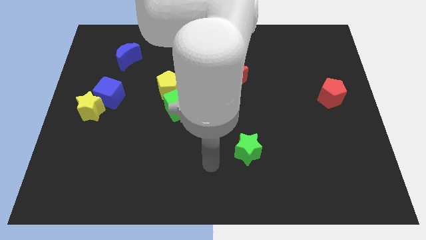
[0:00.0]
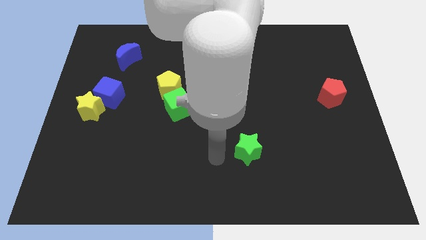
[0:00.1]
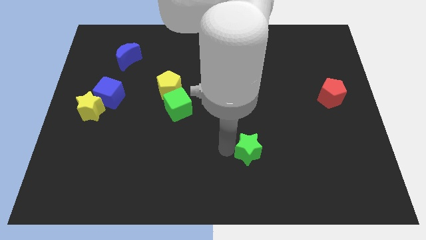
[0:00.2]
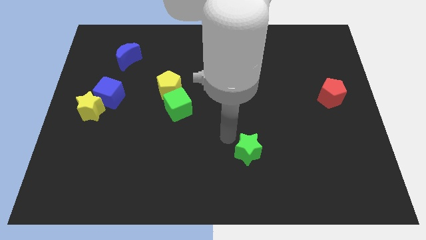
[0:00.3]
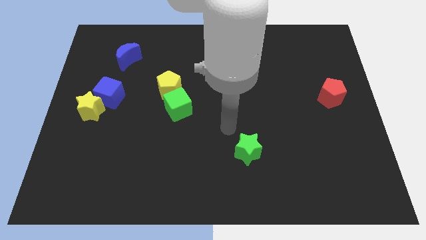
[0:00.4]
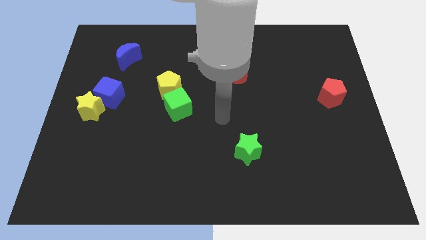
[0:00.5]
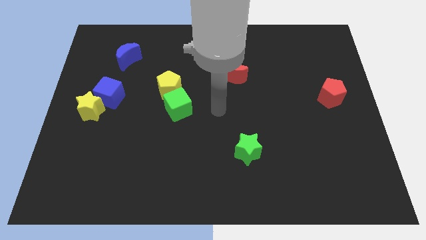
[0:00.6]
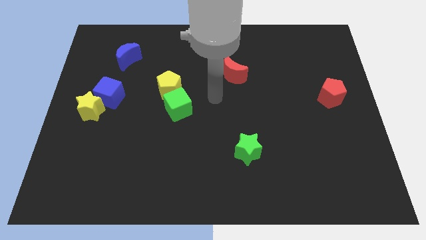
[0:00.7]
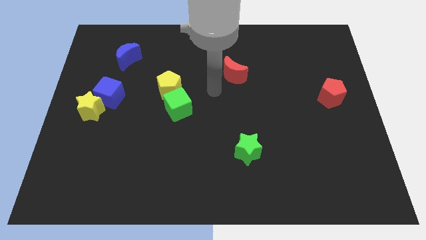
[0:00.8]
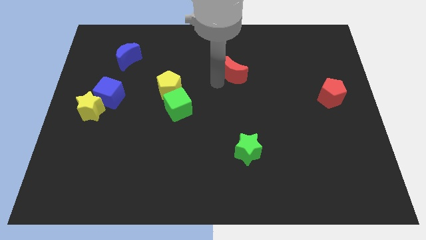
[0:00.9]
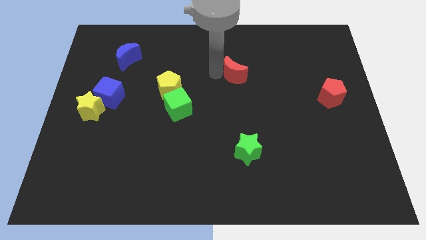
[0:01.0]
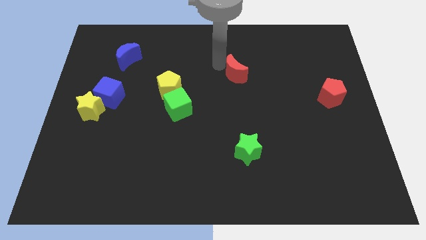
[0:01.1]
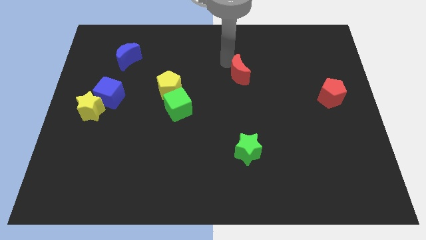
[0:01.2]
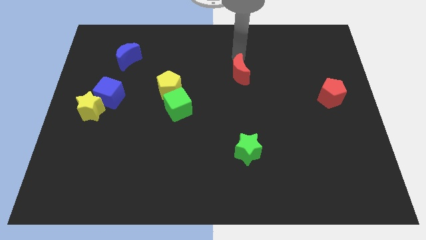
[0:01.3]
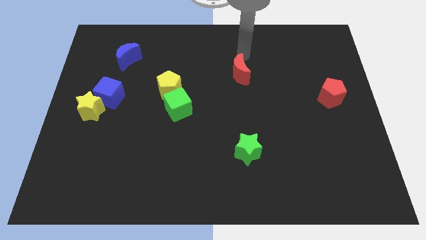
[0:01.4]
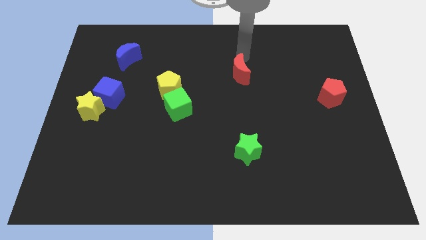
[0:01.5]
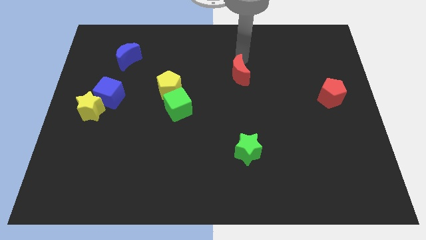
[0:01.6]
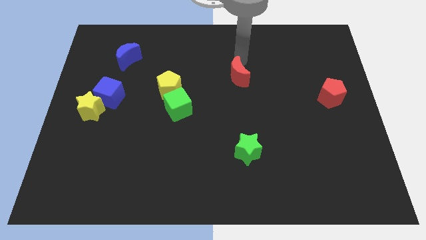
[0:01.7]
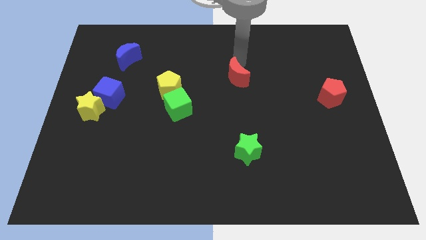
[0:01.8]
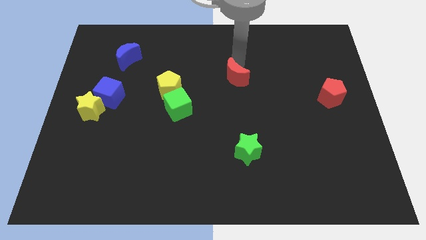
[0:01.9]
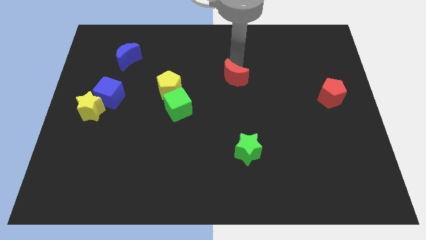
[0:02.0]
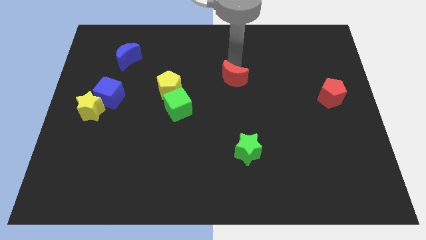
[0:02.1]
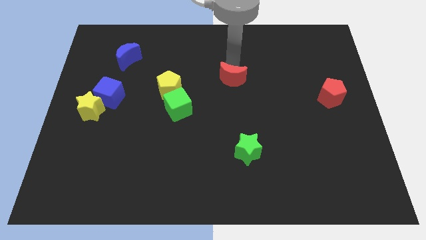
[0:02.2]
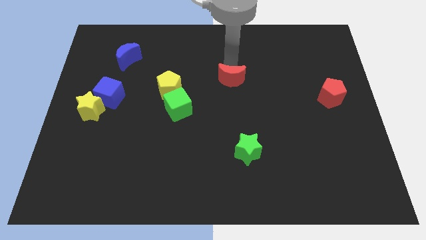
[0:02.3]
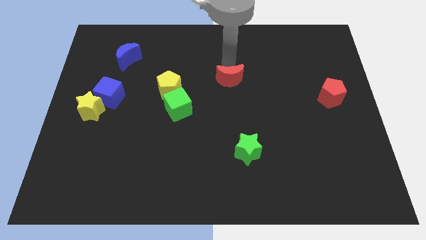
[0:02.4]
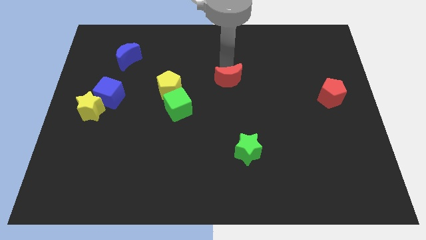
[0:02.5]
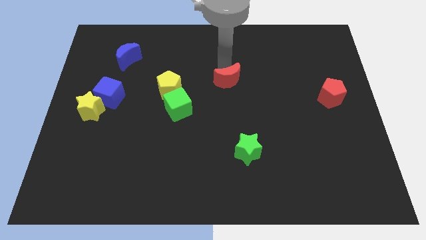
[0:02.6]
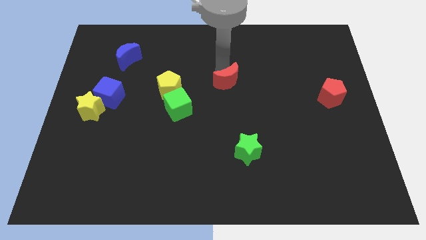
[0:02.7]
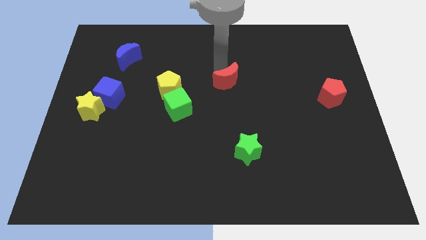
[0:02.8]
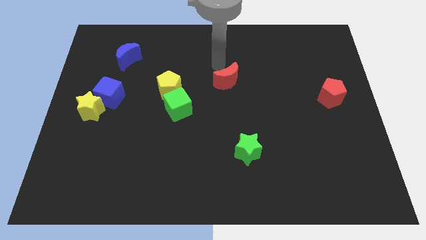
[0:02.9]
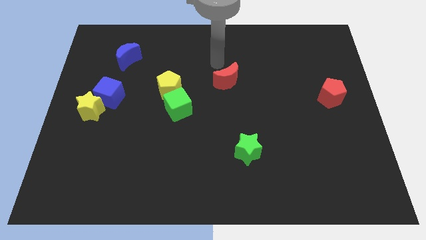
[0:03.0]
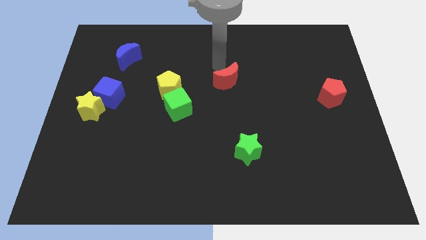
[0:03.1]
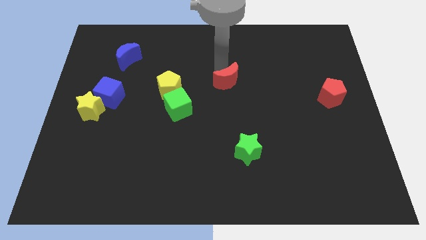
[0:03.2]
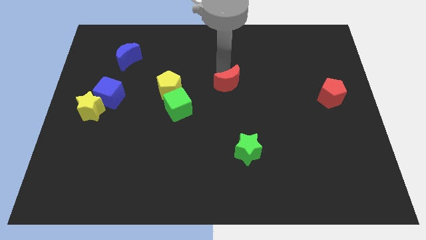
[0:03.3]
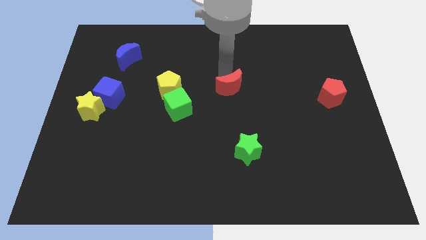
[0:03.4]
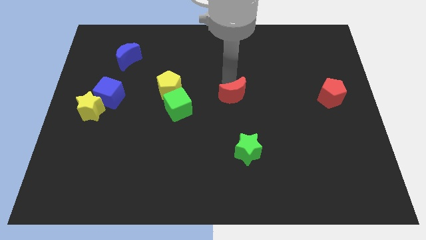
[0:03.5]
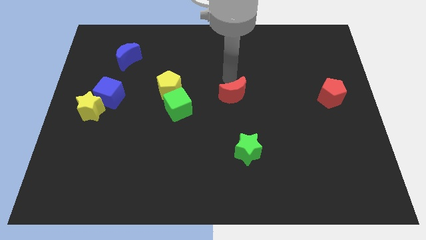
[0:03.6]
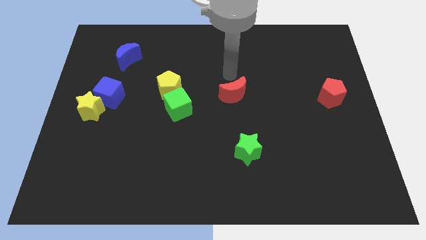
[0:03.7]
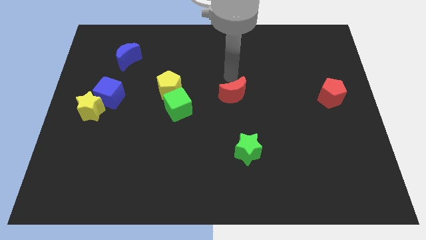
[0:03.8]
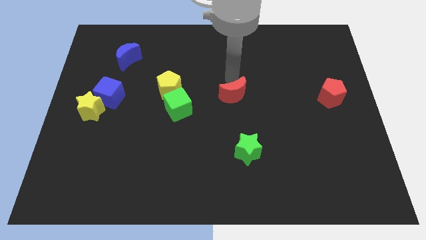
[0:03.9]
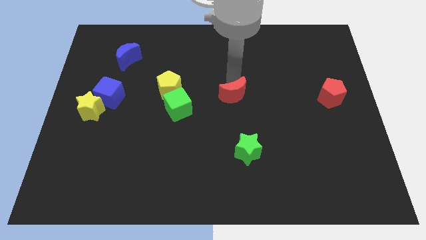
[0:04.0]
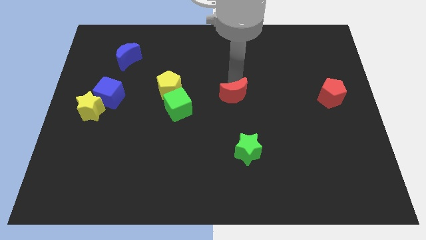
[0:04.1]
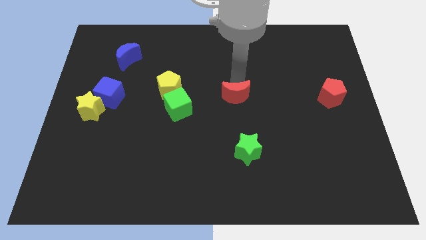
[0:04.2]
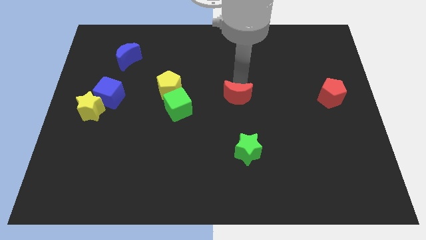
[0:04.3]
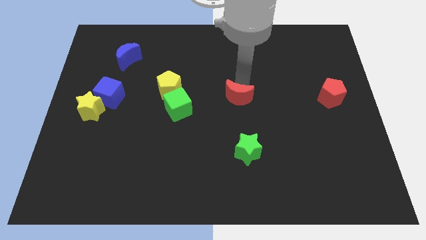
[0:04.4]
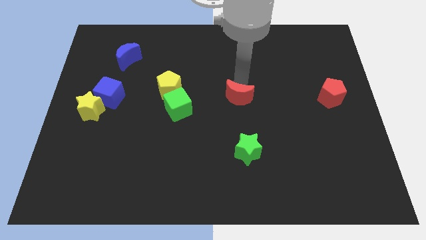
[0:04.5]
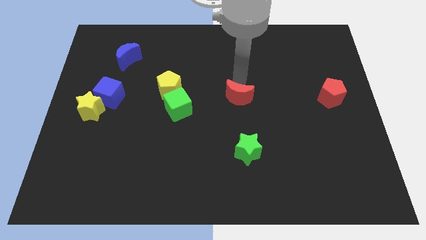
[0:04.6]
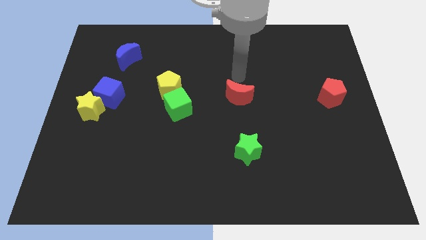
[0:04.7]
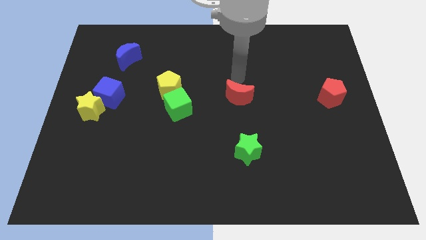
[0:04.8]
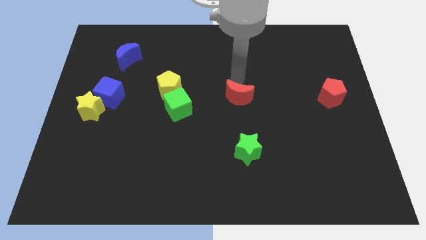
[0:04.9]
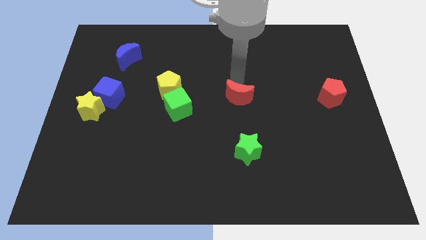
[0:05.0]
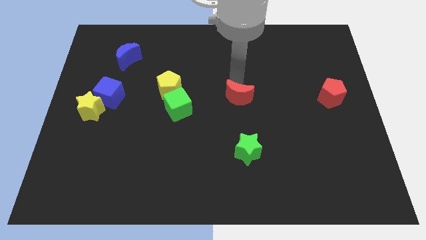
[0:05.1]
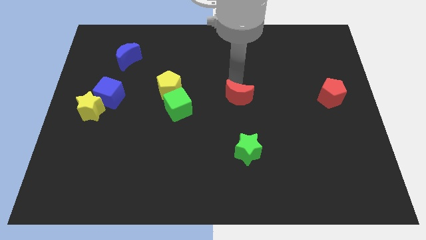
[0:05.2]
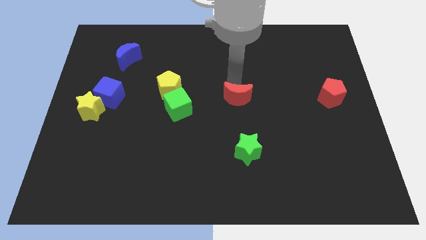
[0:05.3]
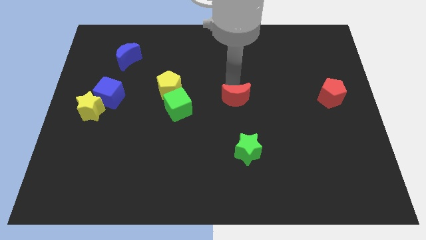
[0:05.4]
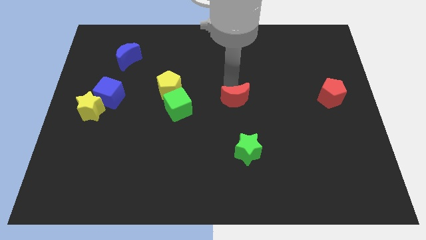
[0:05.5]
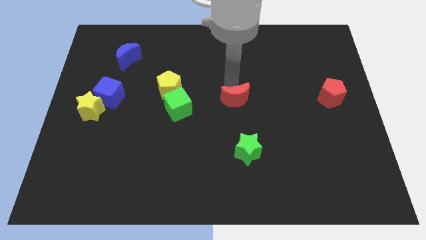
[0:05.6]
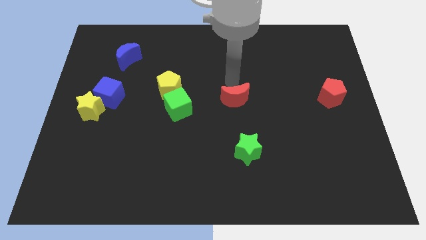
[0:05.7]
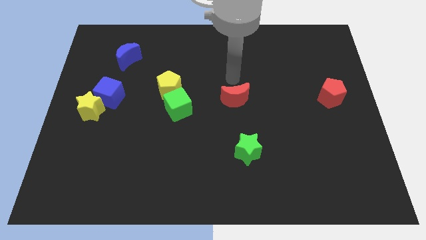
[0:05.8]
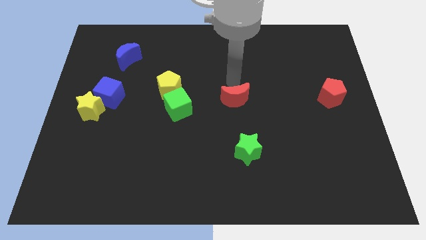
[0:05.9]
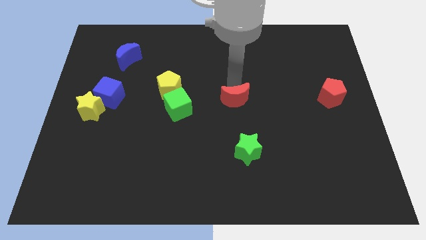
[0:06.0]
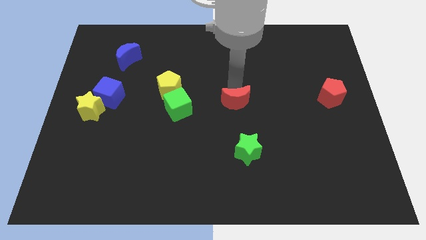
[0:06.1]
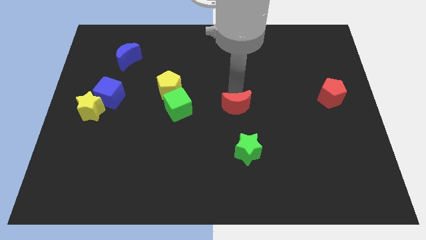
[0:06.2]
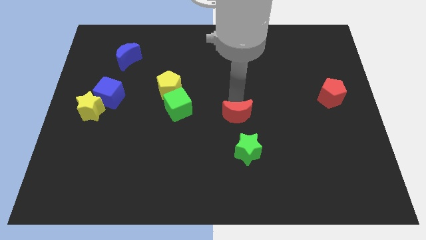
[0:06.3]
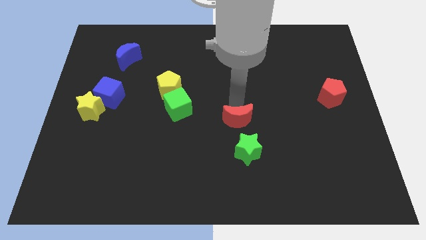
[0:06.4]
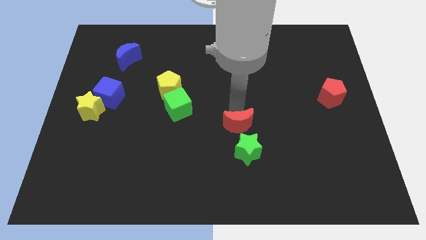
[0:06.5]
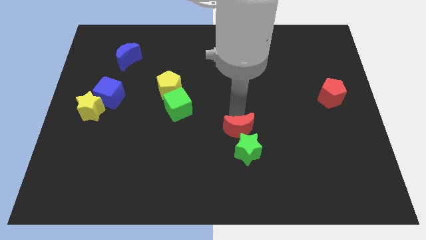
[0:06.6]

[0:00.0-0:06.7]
slide the red moon to the green star

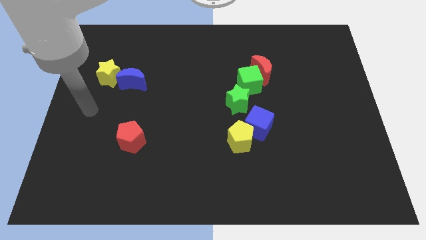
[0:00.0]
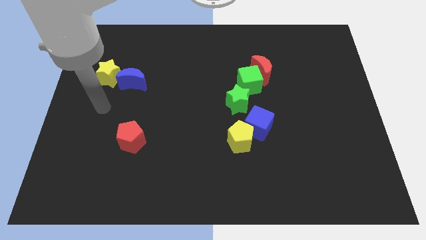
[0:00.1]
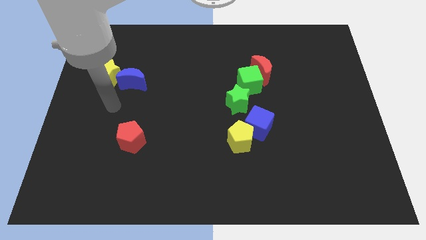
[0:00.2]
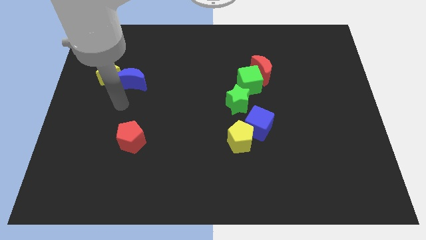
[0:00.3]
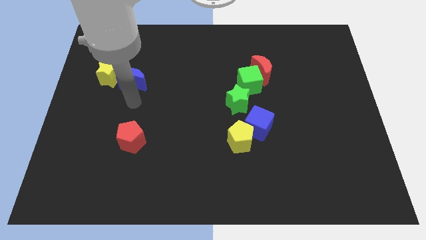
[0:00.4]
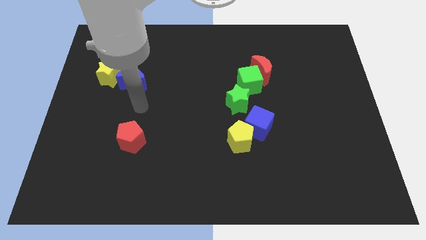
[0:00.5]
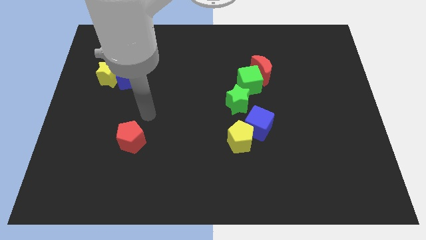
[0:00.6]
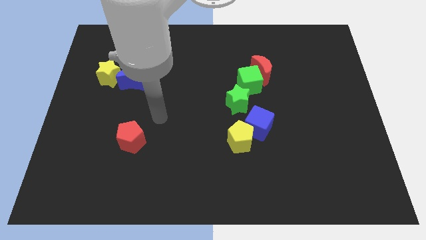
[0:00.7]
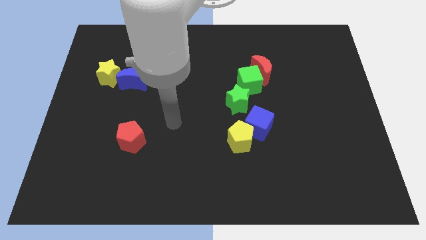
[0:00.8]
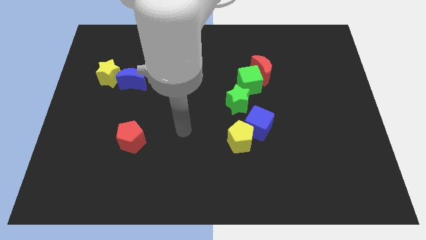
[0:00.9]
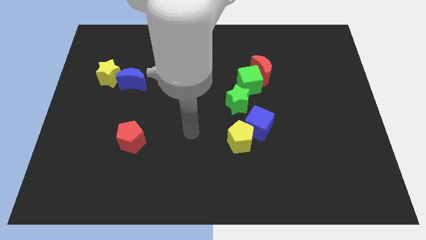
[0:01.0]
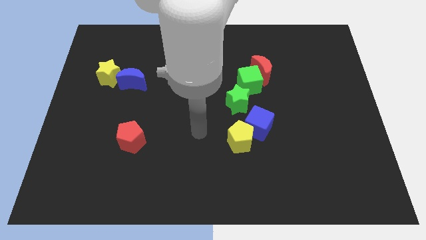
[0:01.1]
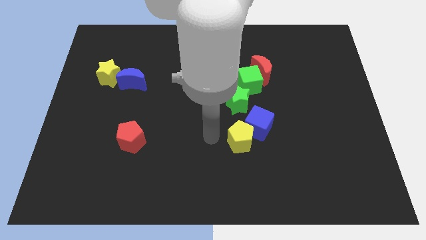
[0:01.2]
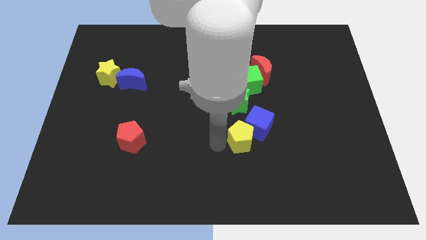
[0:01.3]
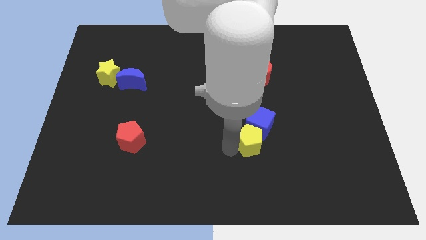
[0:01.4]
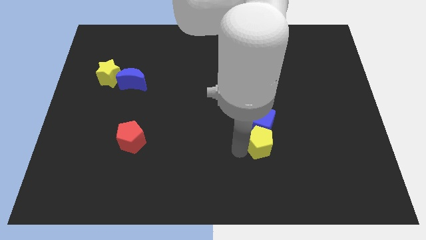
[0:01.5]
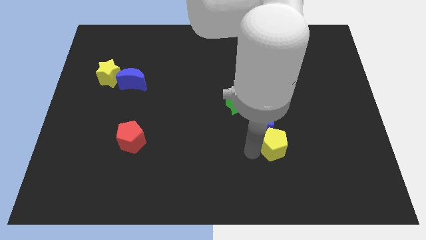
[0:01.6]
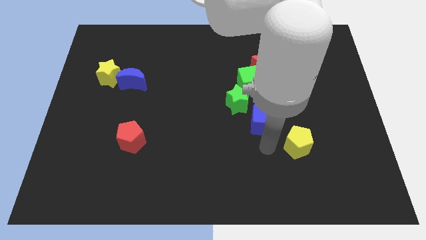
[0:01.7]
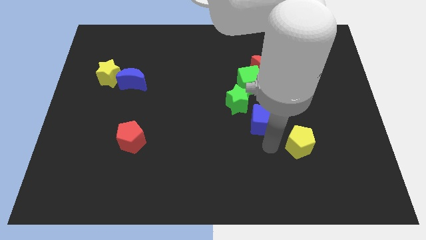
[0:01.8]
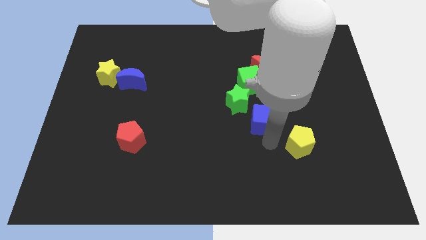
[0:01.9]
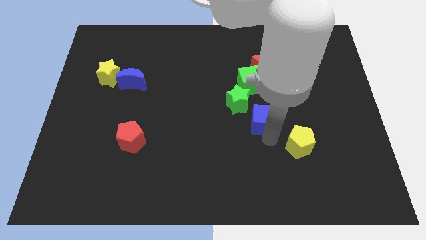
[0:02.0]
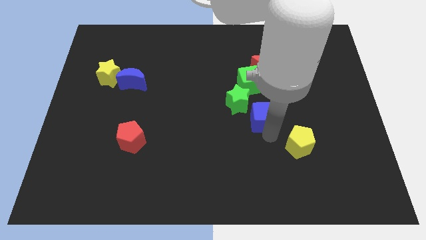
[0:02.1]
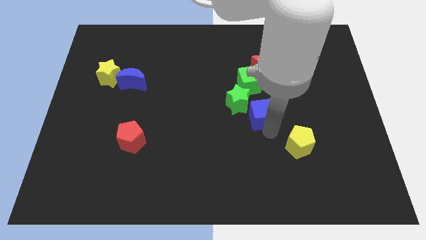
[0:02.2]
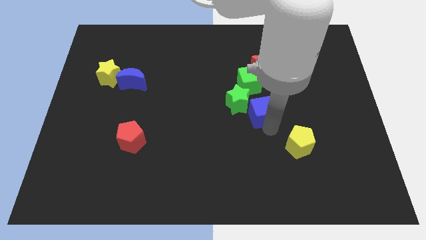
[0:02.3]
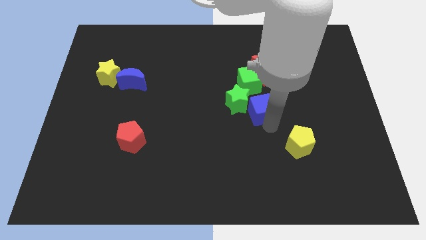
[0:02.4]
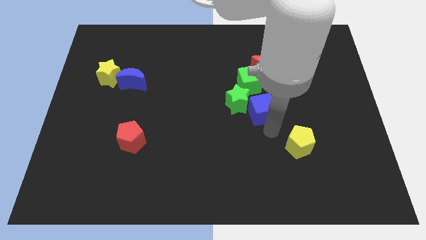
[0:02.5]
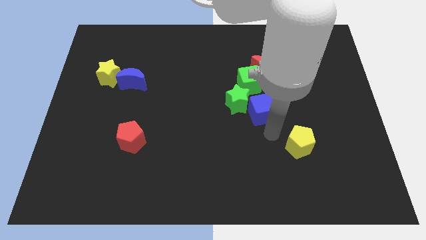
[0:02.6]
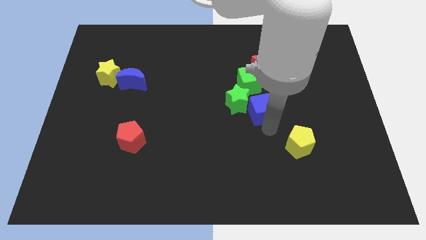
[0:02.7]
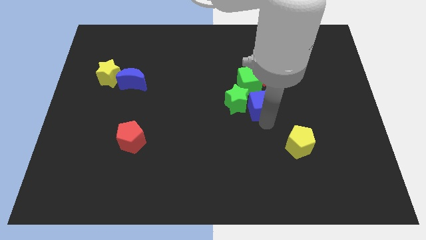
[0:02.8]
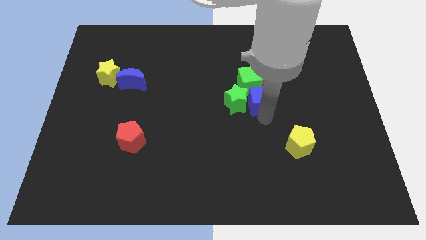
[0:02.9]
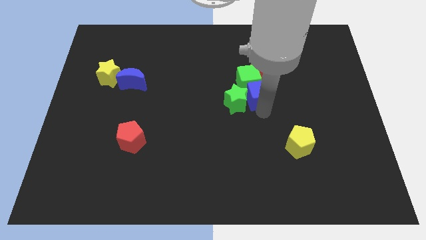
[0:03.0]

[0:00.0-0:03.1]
put the blue cube towards the green cube
